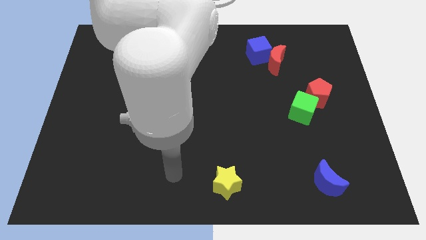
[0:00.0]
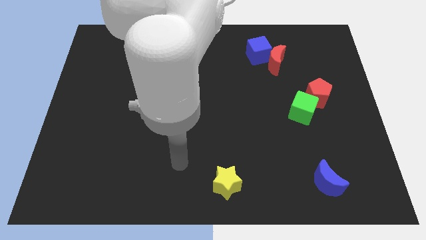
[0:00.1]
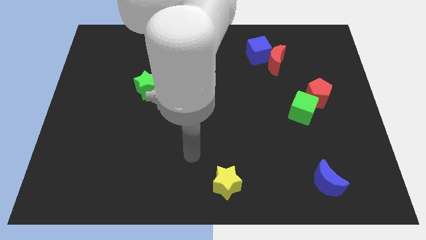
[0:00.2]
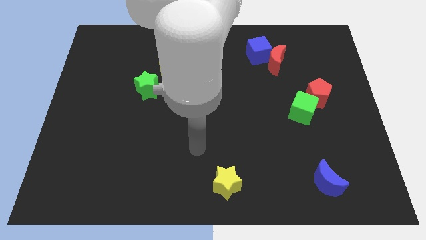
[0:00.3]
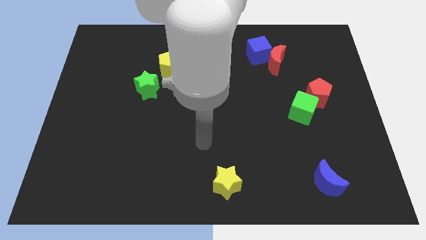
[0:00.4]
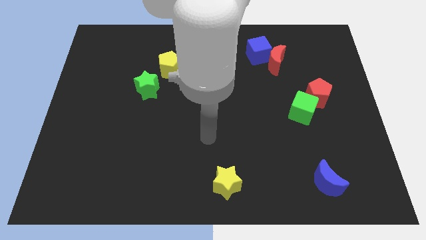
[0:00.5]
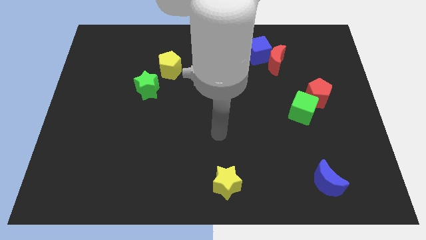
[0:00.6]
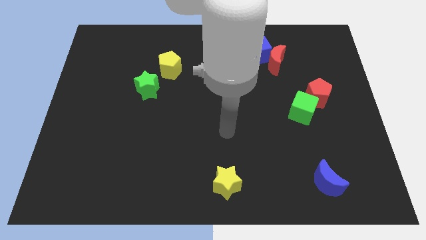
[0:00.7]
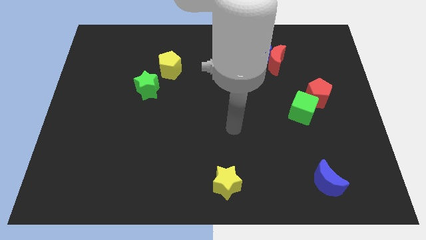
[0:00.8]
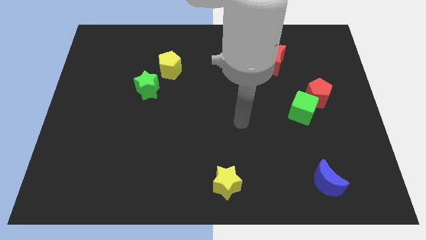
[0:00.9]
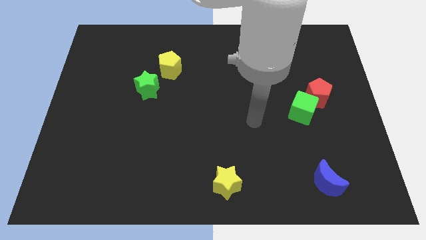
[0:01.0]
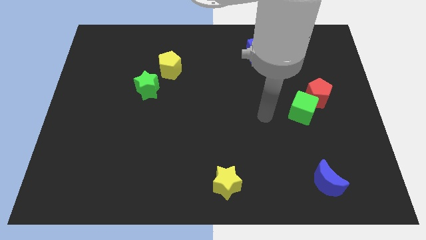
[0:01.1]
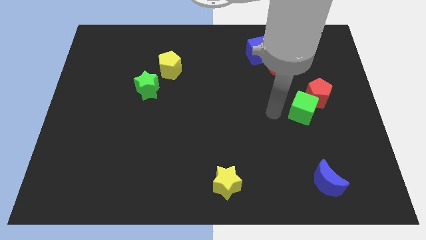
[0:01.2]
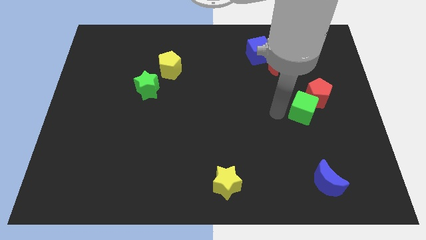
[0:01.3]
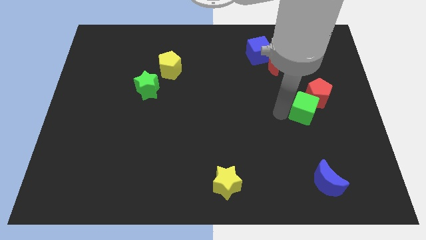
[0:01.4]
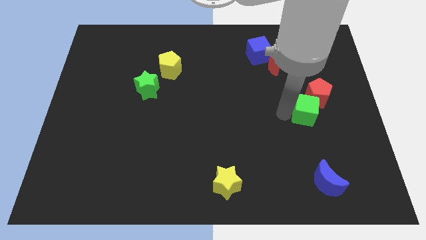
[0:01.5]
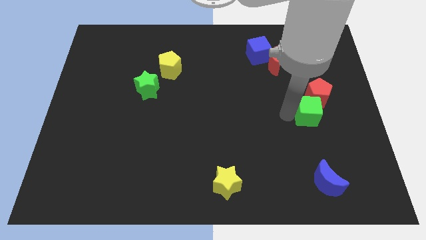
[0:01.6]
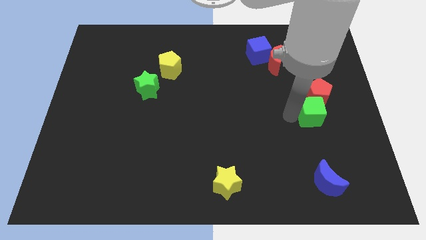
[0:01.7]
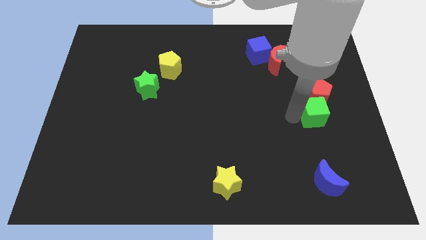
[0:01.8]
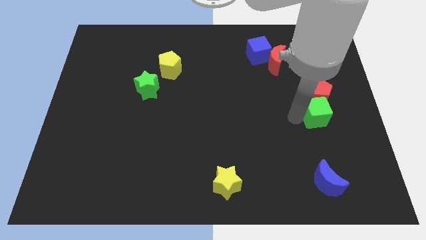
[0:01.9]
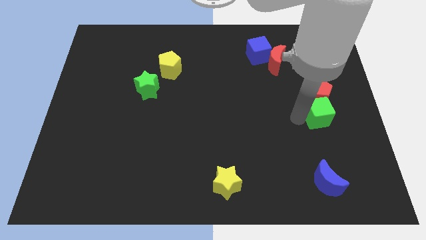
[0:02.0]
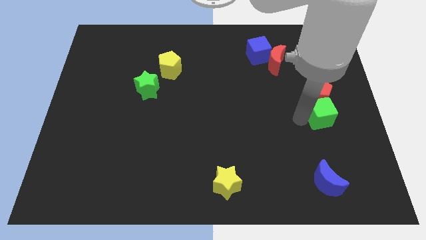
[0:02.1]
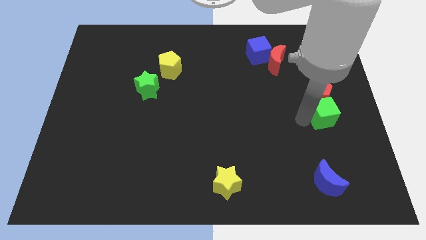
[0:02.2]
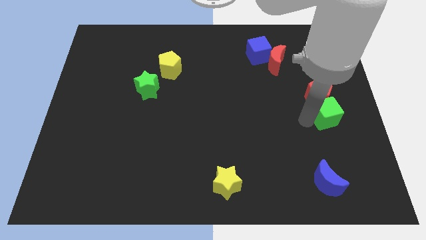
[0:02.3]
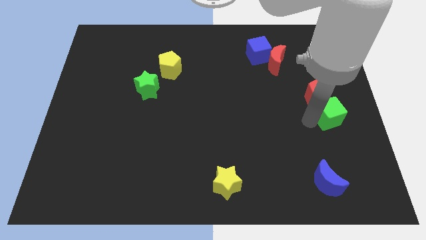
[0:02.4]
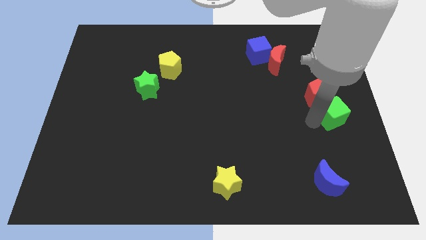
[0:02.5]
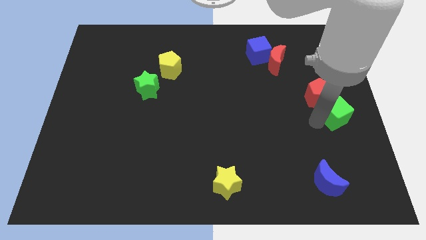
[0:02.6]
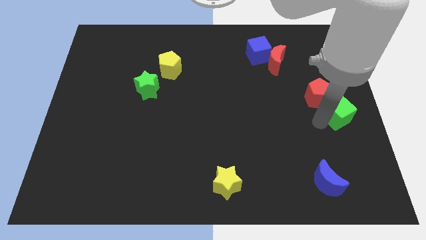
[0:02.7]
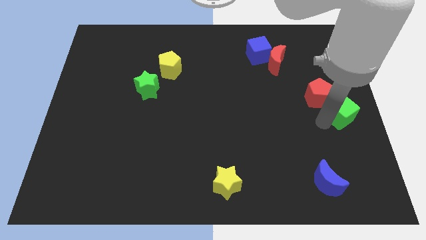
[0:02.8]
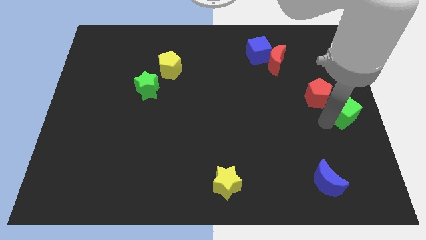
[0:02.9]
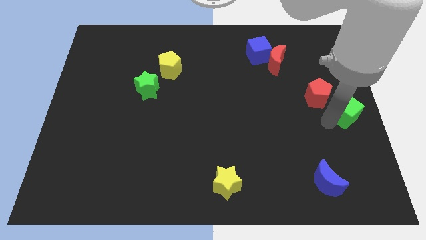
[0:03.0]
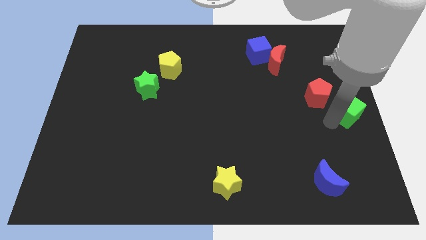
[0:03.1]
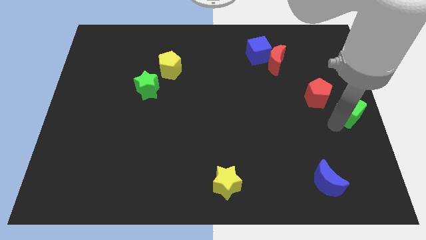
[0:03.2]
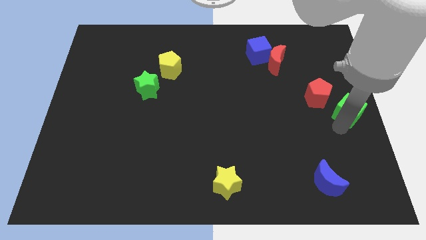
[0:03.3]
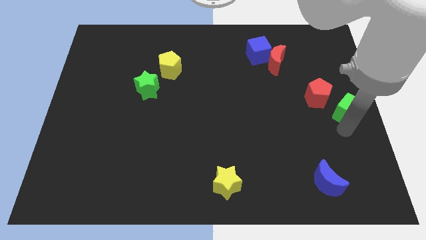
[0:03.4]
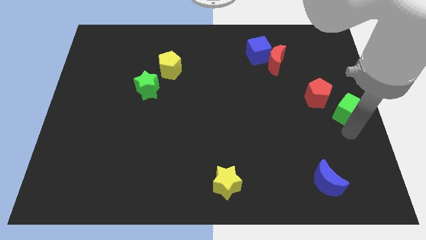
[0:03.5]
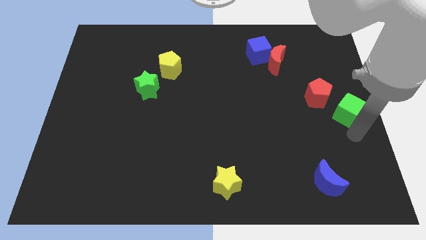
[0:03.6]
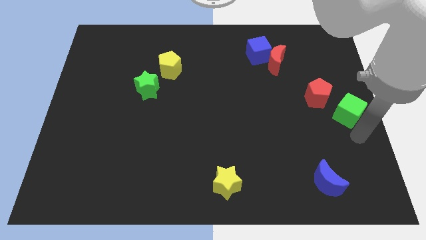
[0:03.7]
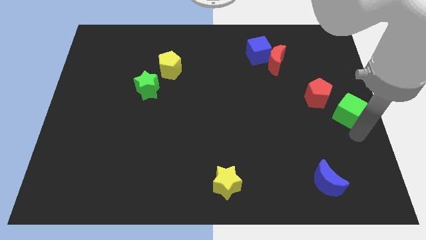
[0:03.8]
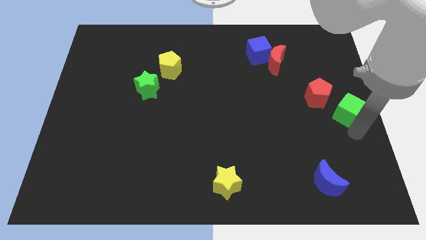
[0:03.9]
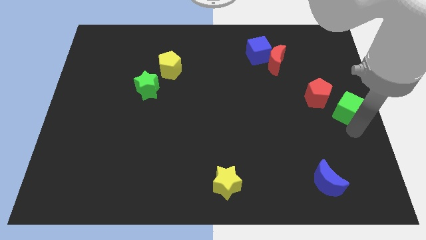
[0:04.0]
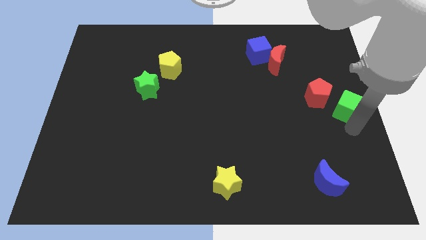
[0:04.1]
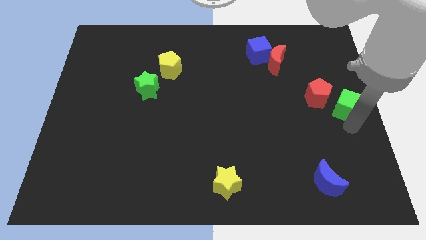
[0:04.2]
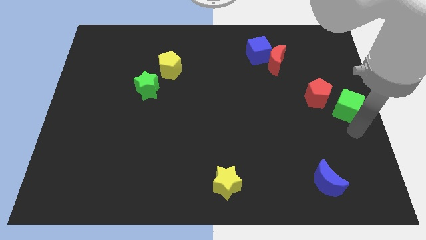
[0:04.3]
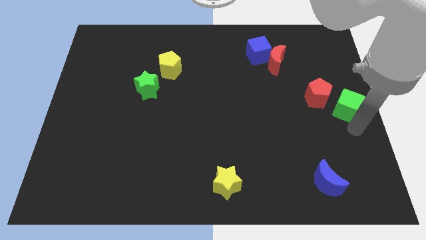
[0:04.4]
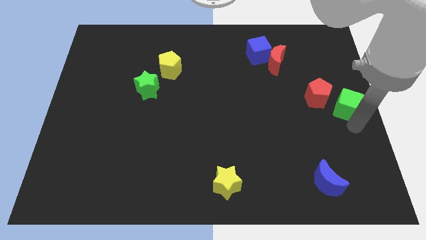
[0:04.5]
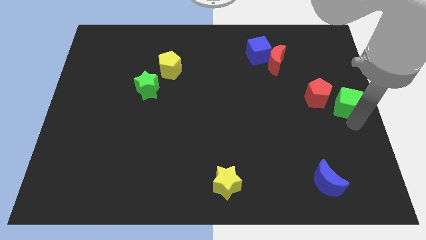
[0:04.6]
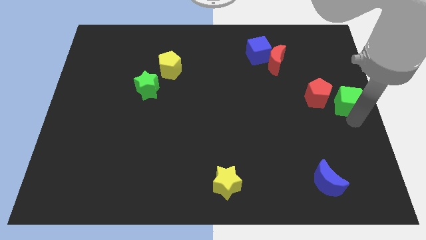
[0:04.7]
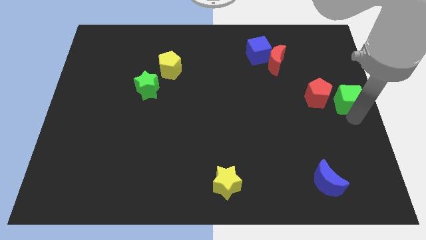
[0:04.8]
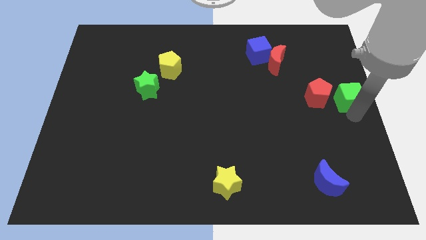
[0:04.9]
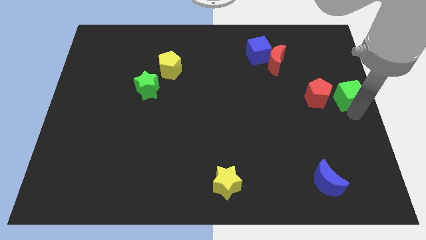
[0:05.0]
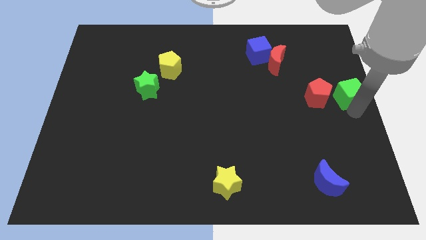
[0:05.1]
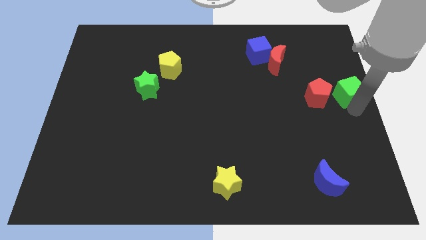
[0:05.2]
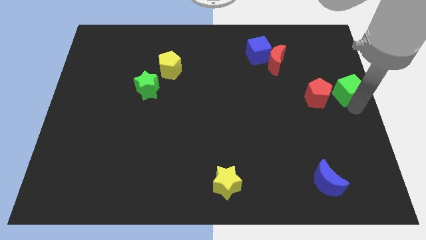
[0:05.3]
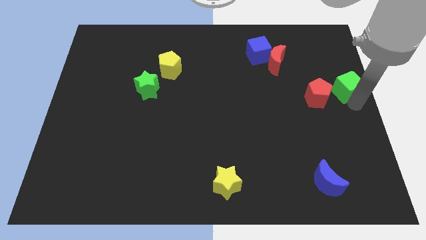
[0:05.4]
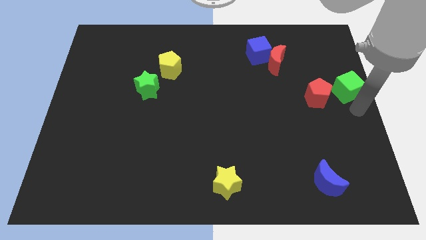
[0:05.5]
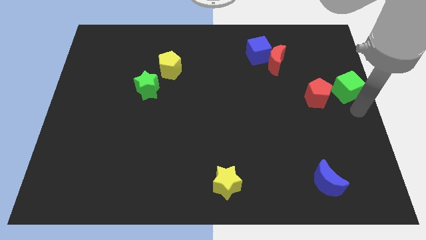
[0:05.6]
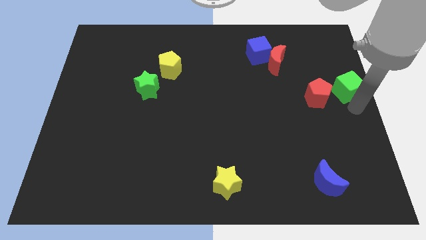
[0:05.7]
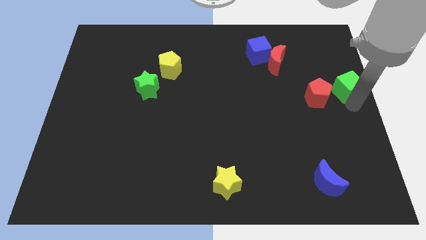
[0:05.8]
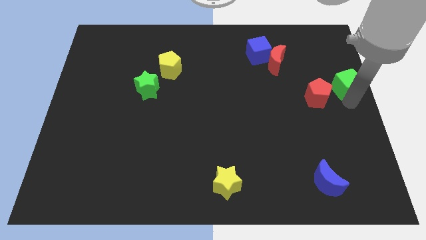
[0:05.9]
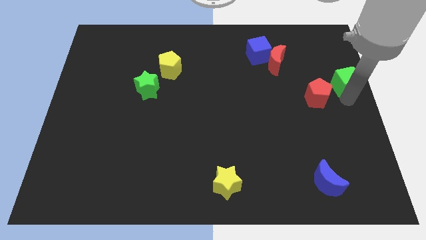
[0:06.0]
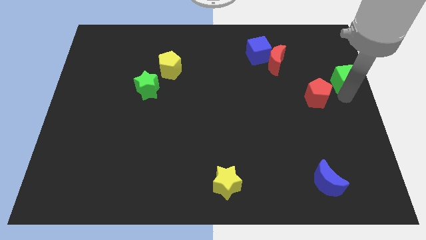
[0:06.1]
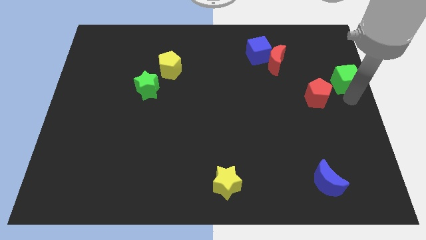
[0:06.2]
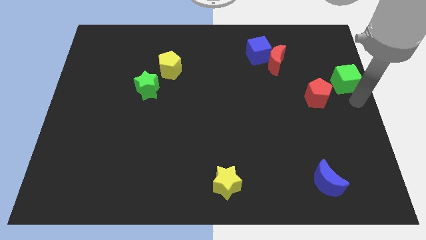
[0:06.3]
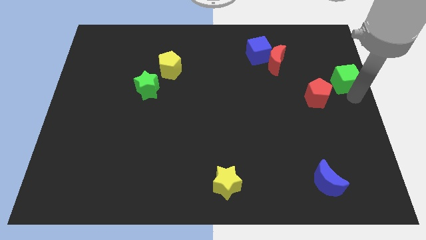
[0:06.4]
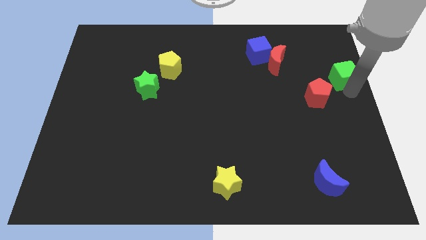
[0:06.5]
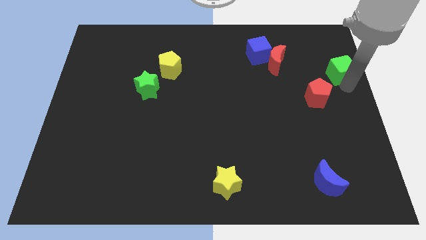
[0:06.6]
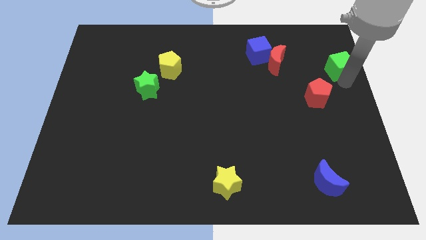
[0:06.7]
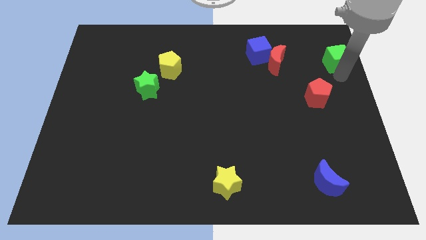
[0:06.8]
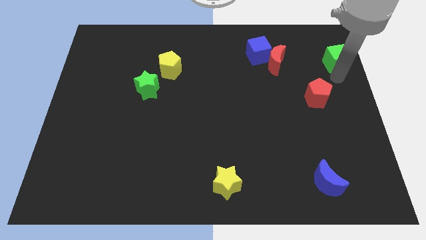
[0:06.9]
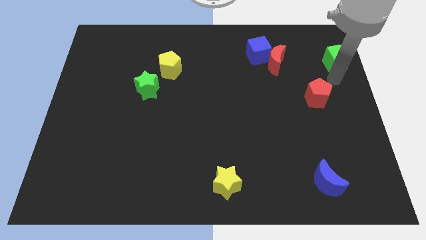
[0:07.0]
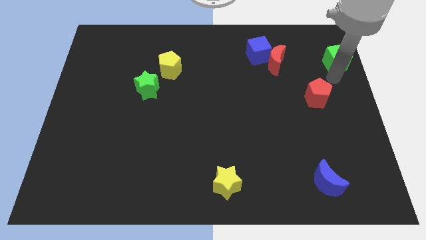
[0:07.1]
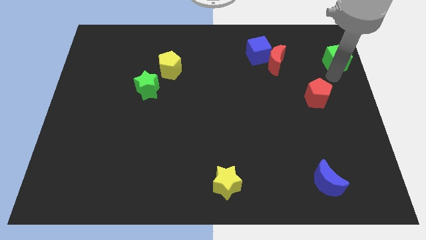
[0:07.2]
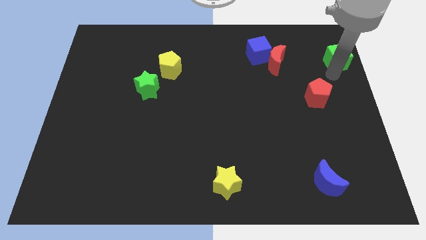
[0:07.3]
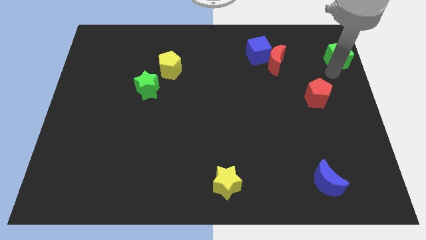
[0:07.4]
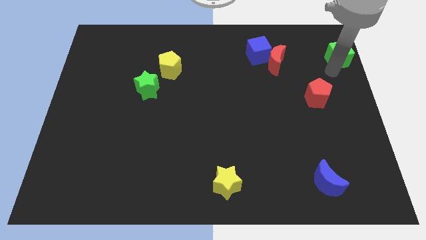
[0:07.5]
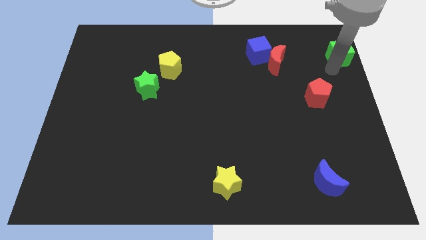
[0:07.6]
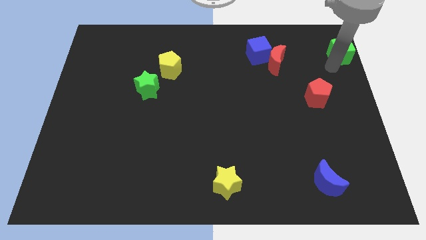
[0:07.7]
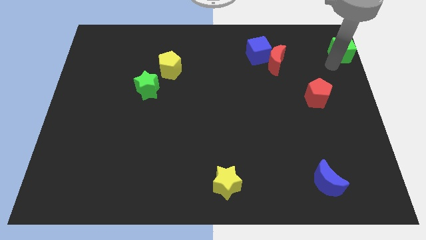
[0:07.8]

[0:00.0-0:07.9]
push the green cube to the upper right corner
